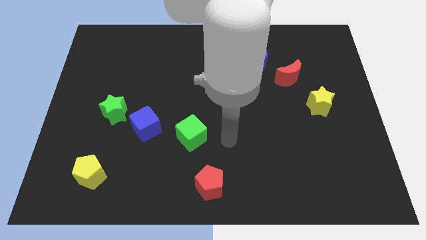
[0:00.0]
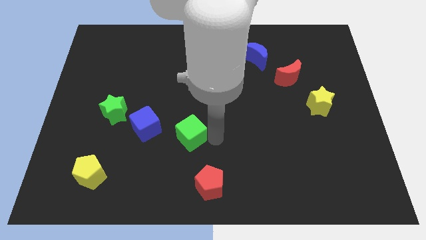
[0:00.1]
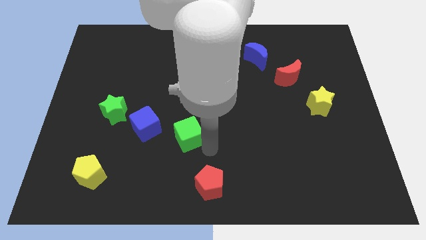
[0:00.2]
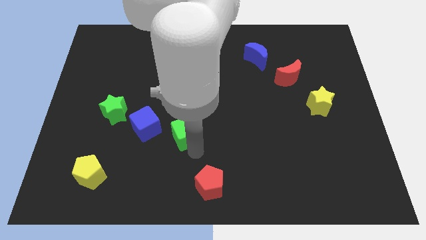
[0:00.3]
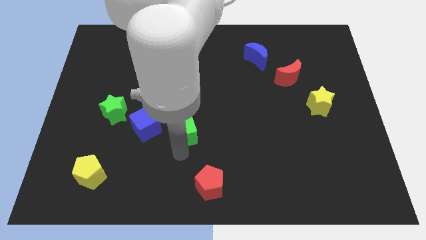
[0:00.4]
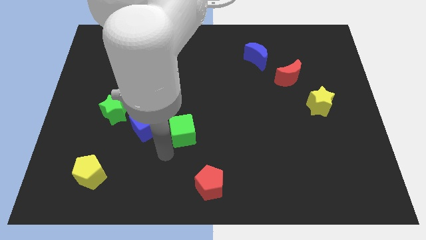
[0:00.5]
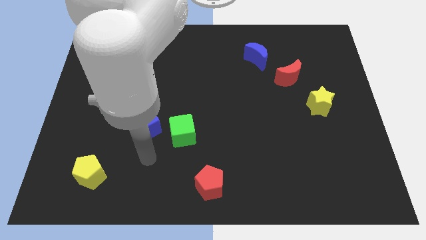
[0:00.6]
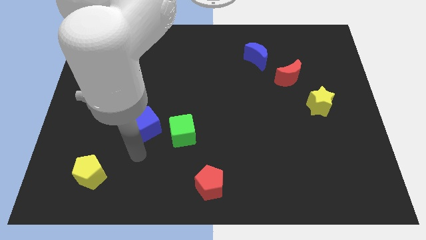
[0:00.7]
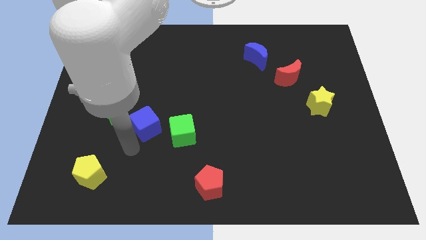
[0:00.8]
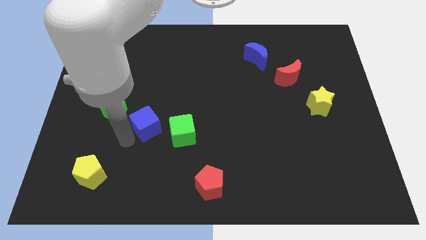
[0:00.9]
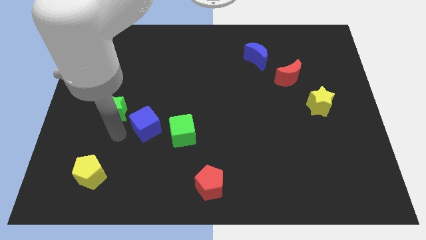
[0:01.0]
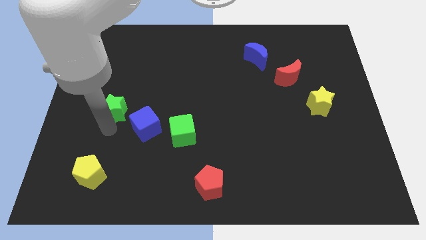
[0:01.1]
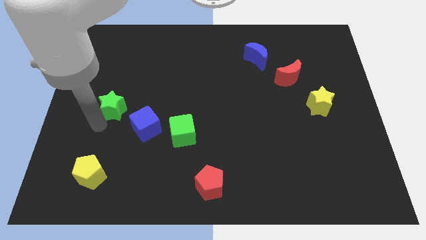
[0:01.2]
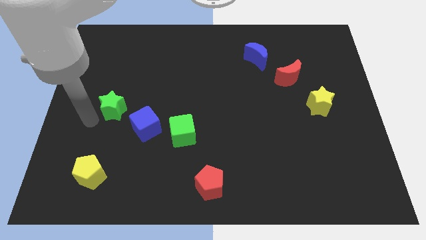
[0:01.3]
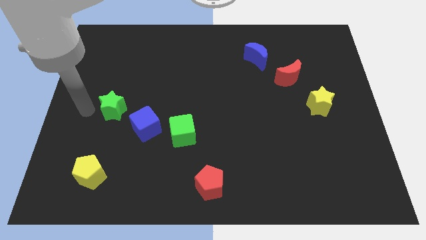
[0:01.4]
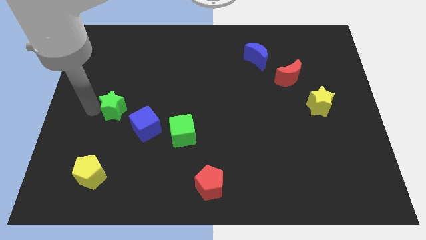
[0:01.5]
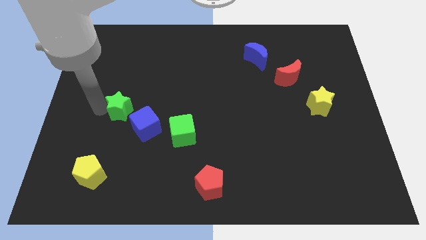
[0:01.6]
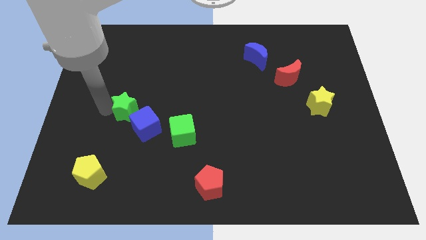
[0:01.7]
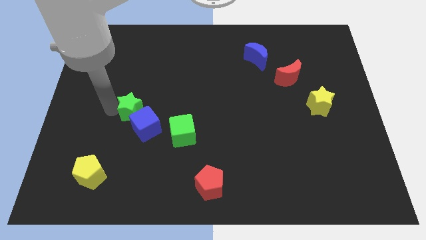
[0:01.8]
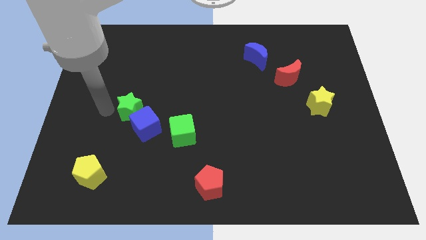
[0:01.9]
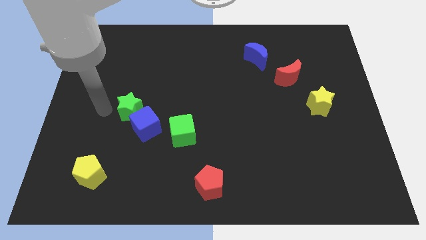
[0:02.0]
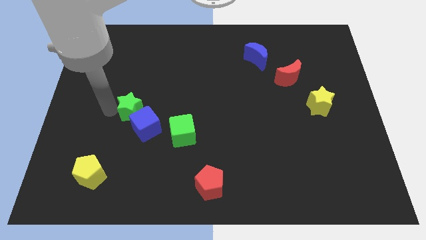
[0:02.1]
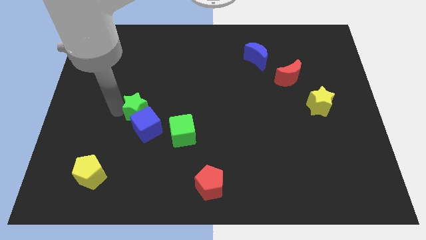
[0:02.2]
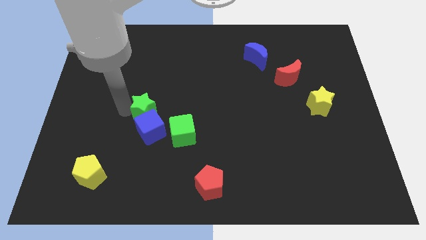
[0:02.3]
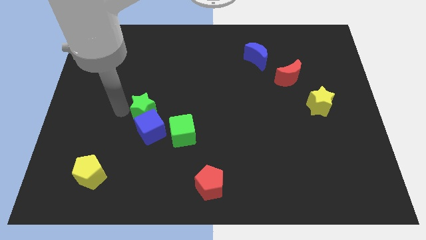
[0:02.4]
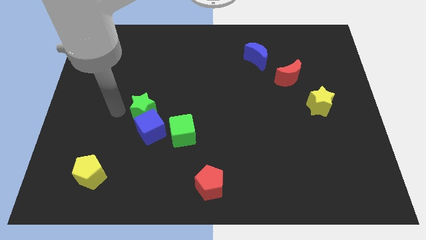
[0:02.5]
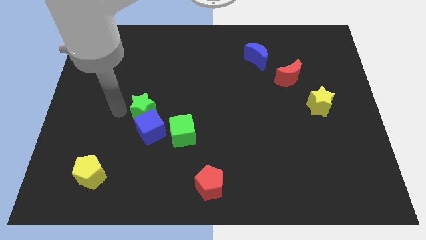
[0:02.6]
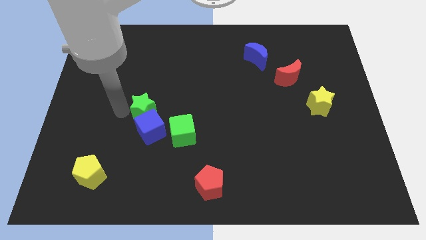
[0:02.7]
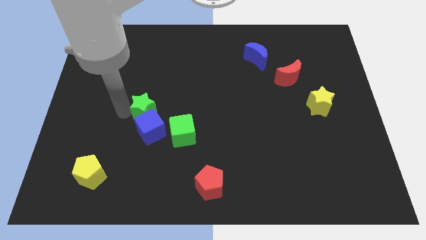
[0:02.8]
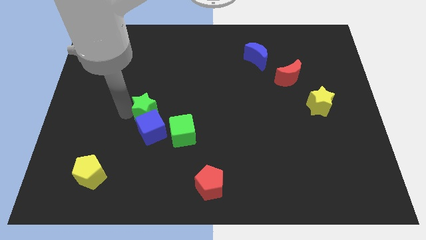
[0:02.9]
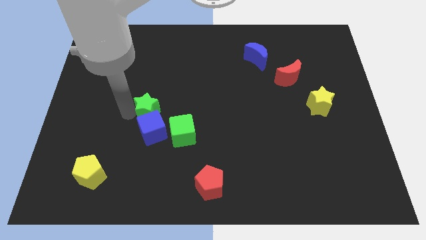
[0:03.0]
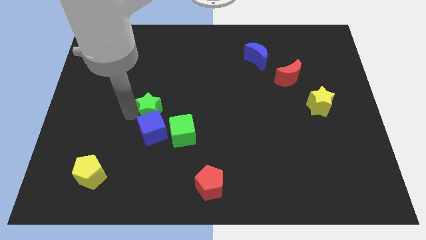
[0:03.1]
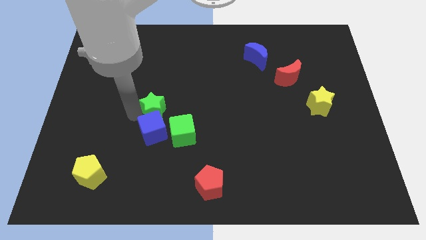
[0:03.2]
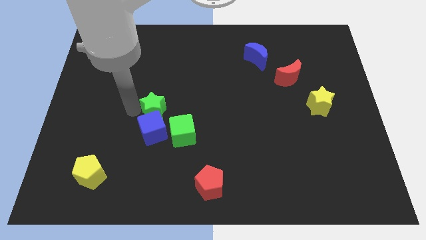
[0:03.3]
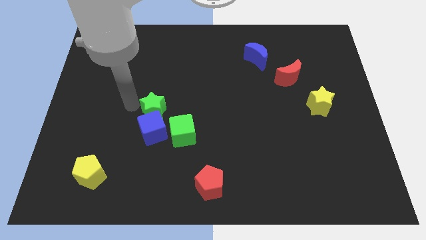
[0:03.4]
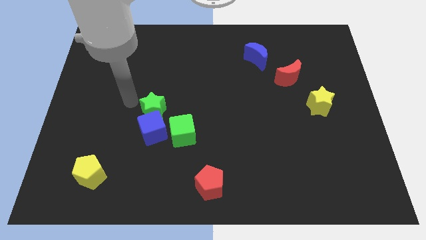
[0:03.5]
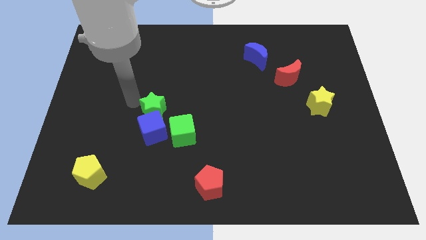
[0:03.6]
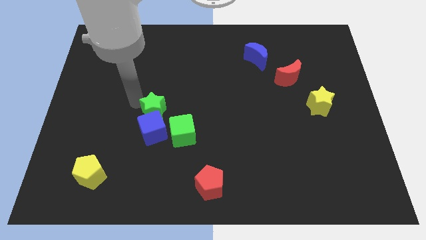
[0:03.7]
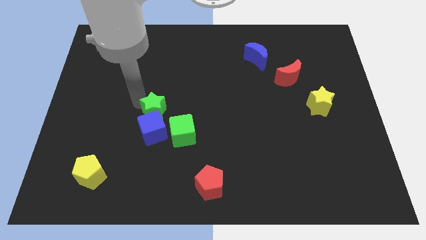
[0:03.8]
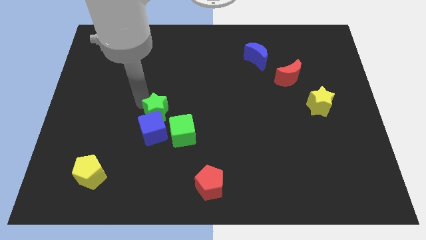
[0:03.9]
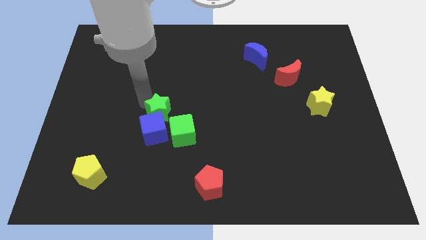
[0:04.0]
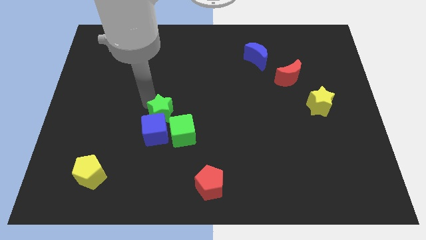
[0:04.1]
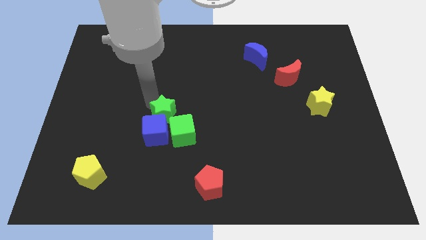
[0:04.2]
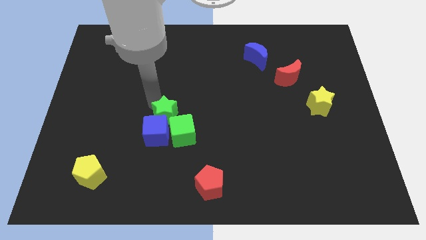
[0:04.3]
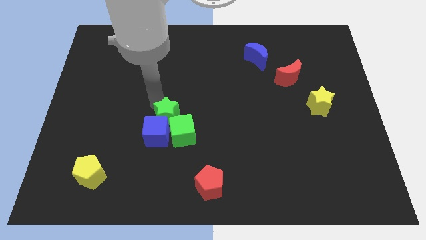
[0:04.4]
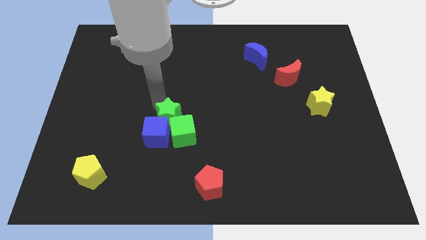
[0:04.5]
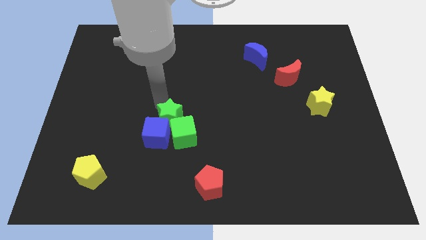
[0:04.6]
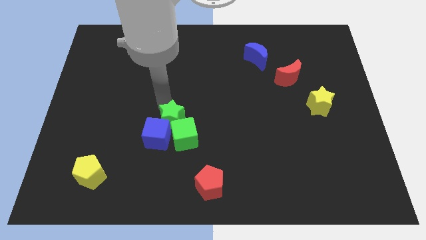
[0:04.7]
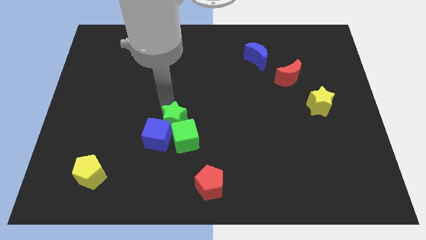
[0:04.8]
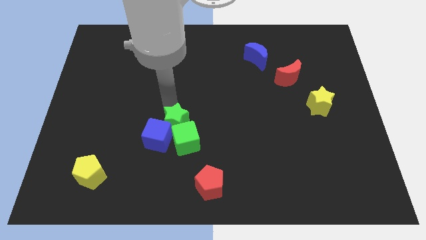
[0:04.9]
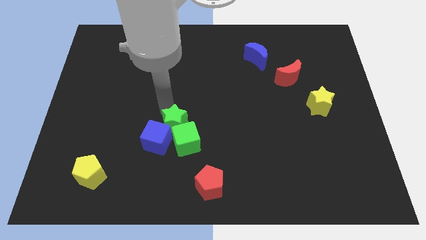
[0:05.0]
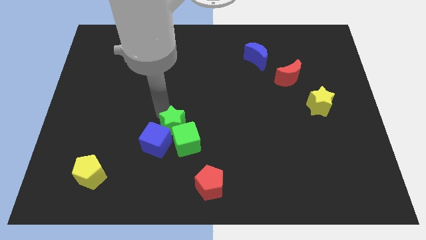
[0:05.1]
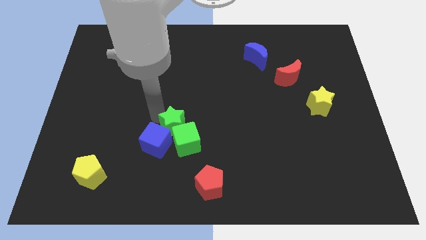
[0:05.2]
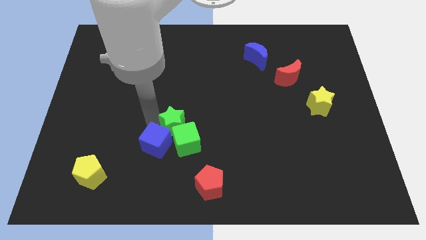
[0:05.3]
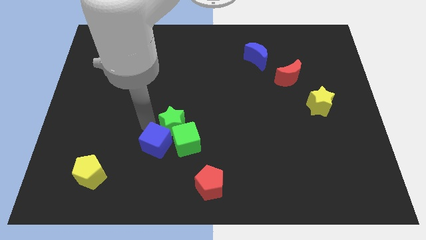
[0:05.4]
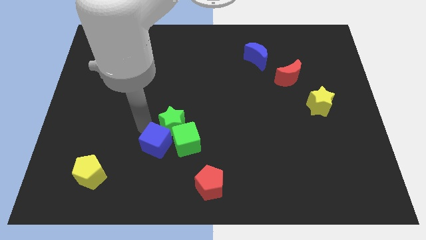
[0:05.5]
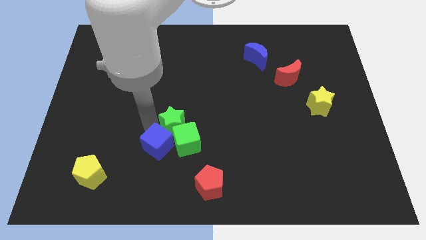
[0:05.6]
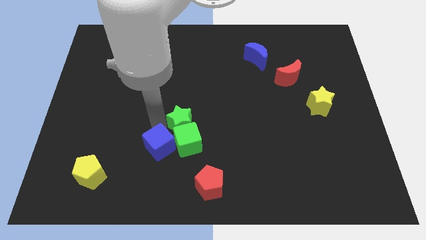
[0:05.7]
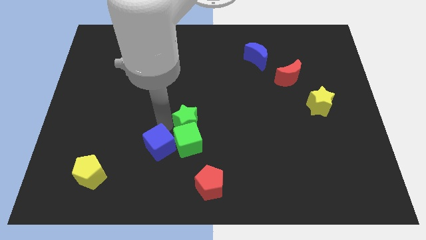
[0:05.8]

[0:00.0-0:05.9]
push the green star to the top right side of the green cube
